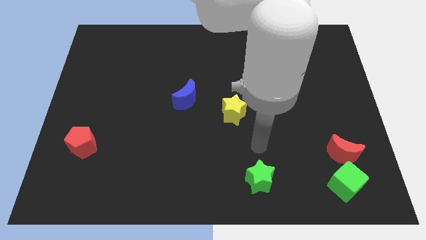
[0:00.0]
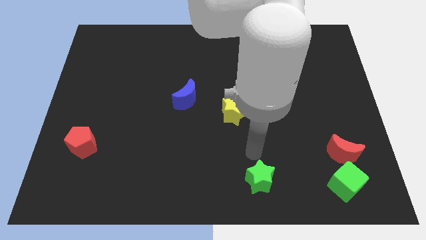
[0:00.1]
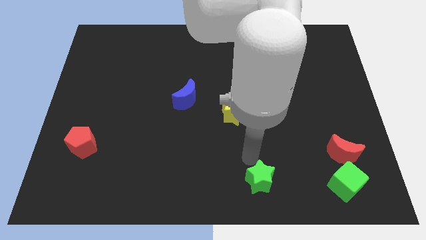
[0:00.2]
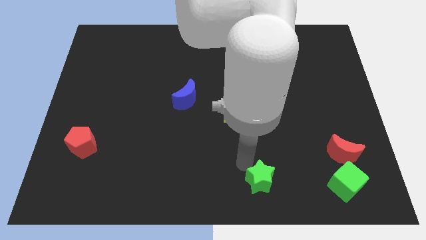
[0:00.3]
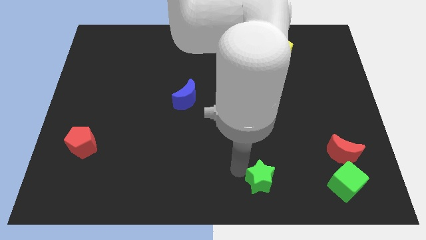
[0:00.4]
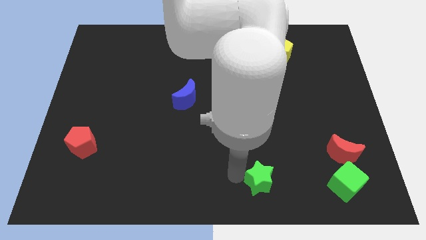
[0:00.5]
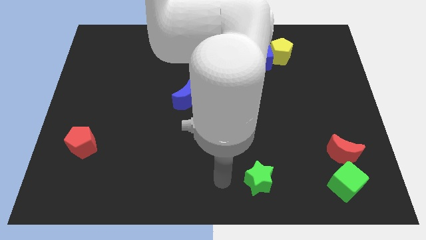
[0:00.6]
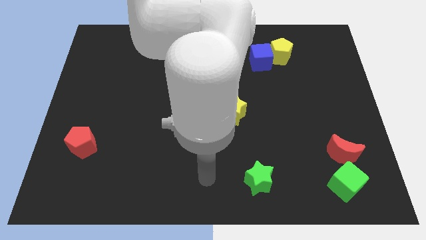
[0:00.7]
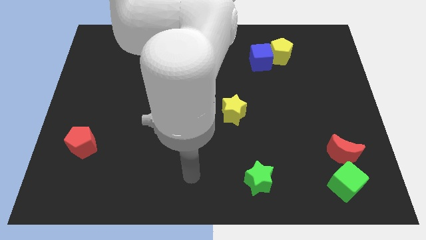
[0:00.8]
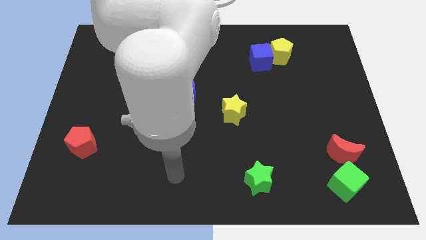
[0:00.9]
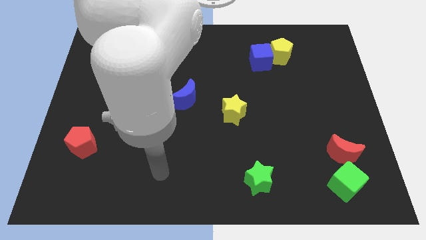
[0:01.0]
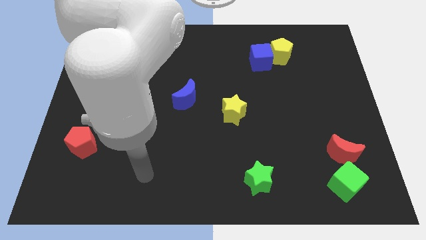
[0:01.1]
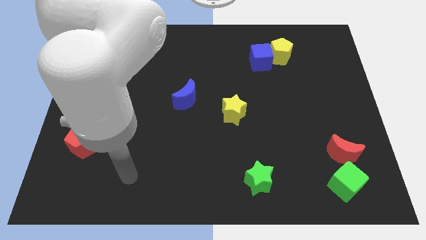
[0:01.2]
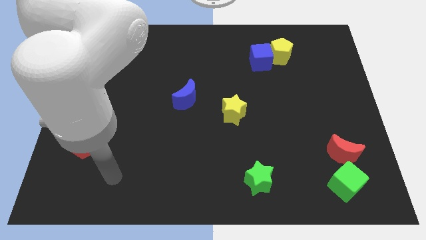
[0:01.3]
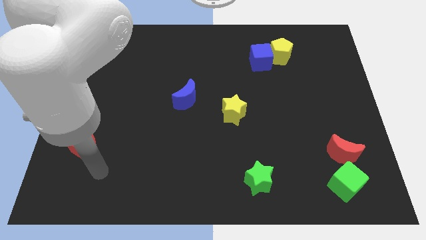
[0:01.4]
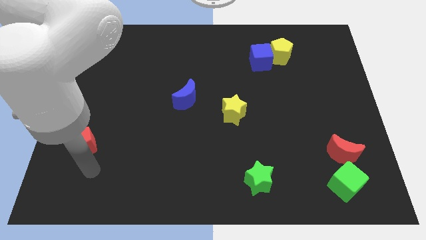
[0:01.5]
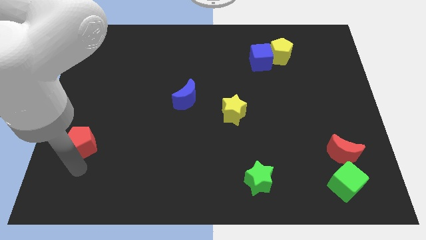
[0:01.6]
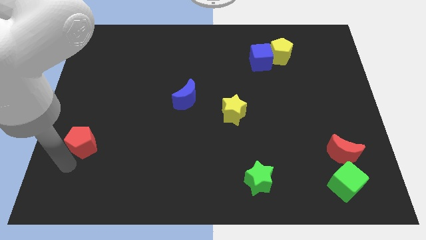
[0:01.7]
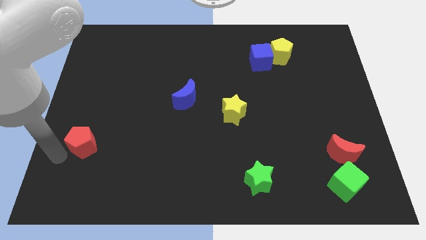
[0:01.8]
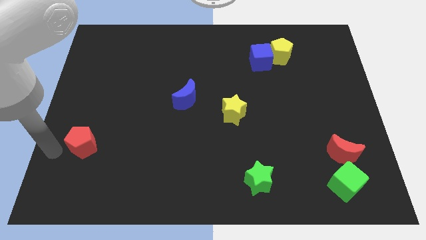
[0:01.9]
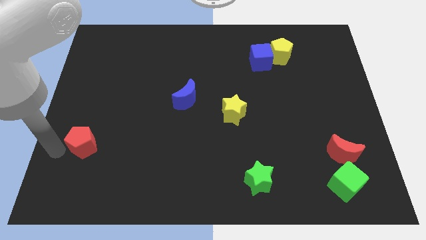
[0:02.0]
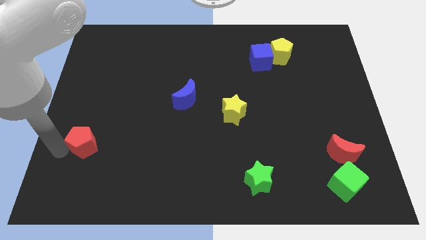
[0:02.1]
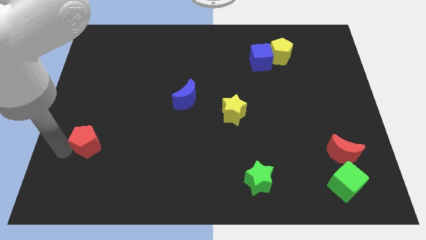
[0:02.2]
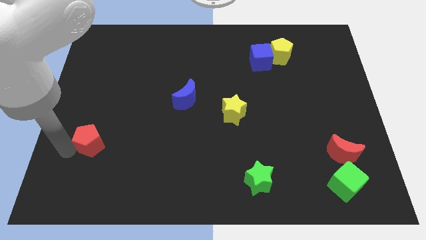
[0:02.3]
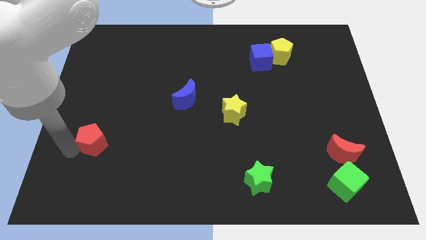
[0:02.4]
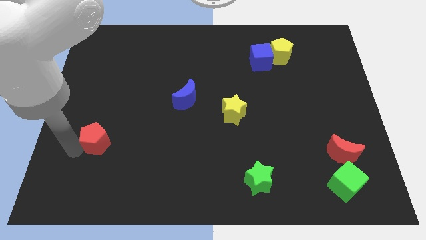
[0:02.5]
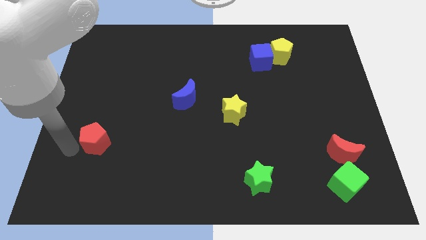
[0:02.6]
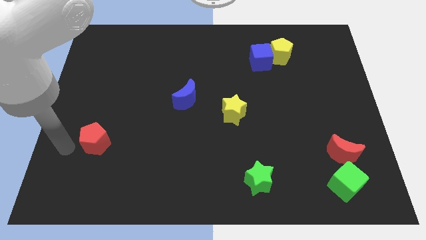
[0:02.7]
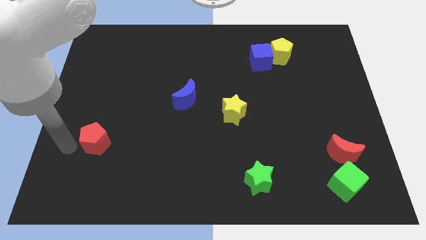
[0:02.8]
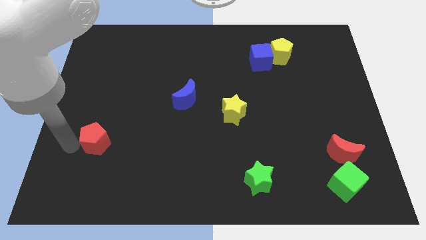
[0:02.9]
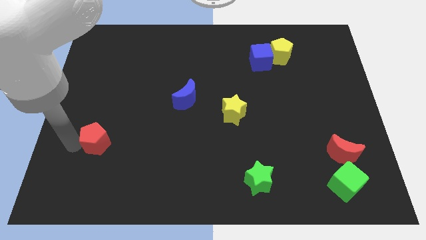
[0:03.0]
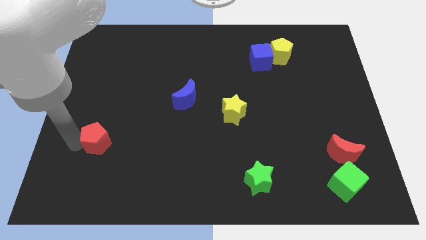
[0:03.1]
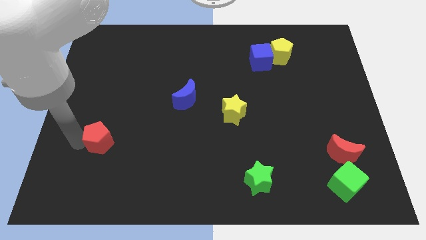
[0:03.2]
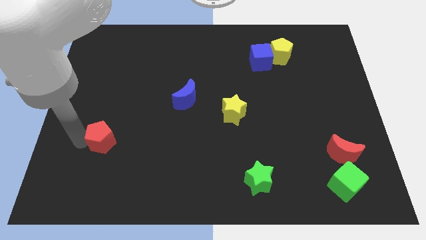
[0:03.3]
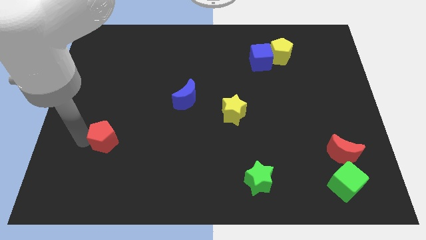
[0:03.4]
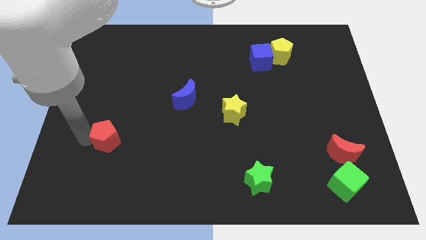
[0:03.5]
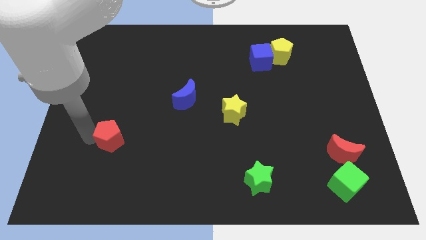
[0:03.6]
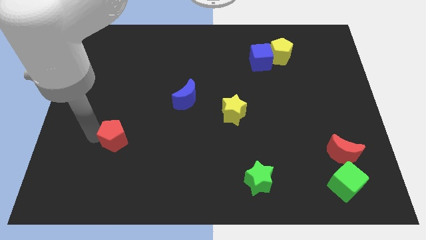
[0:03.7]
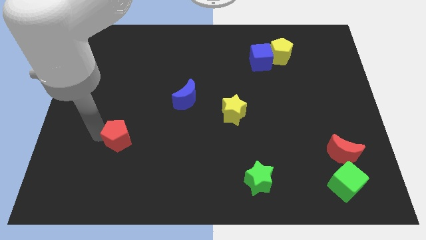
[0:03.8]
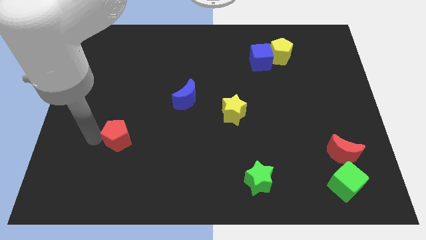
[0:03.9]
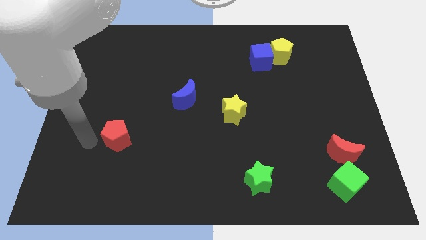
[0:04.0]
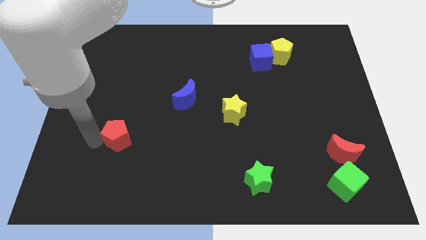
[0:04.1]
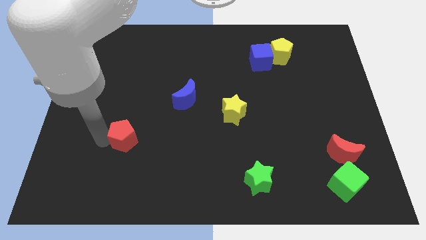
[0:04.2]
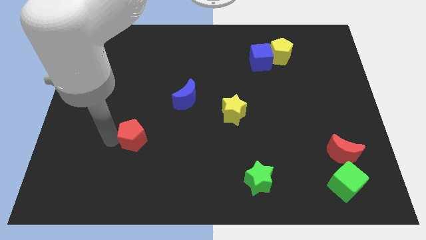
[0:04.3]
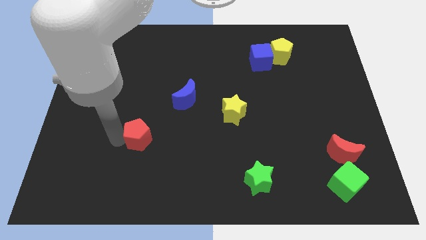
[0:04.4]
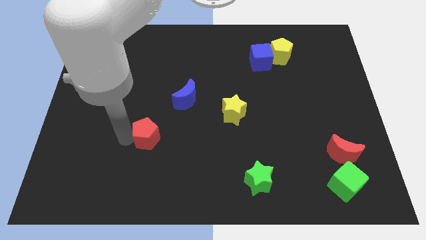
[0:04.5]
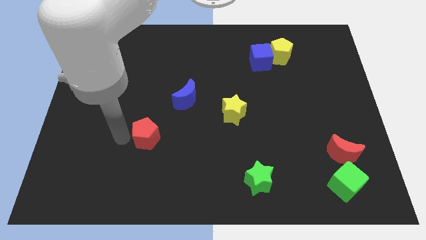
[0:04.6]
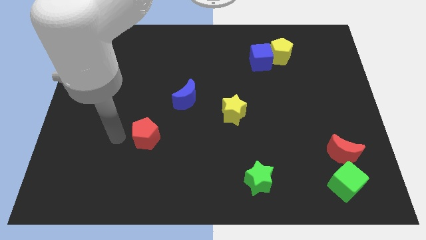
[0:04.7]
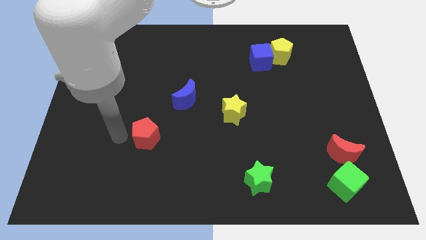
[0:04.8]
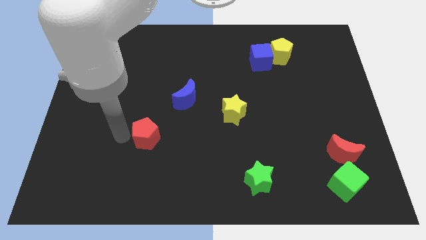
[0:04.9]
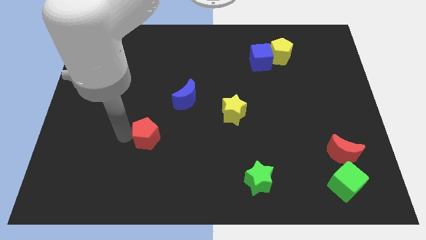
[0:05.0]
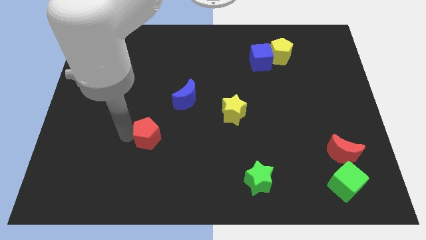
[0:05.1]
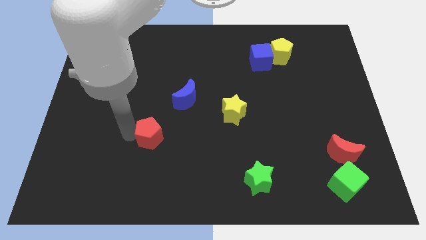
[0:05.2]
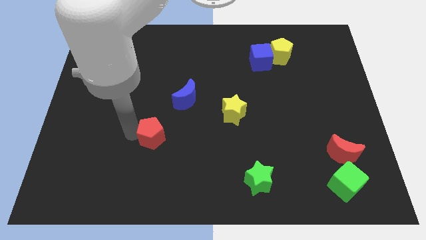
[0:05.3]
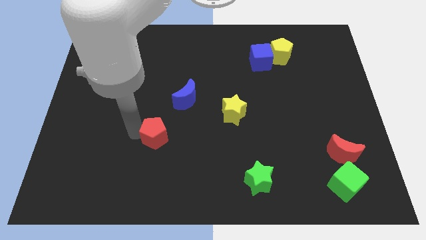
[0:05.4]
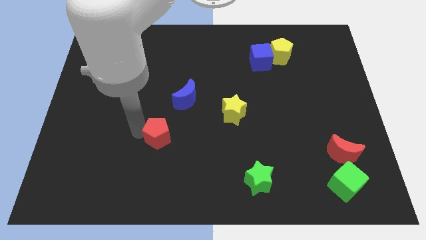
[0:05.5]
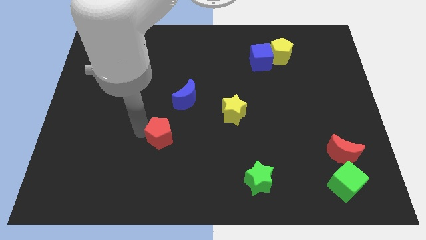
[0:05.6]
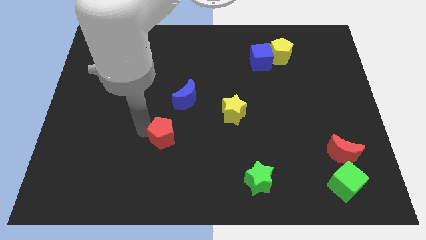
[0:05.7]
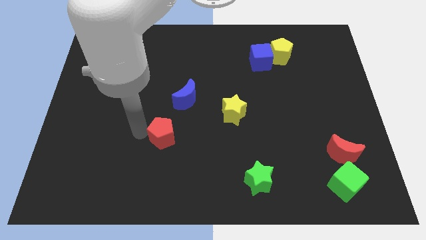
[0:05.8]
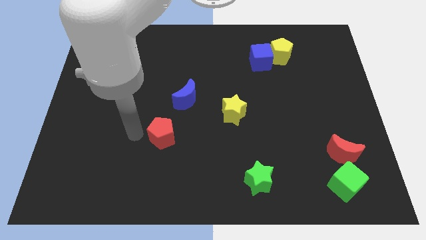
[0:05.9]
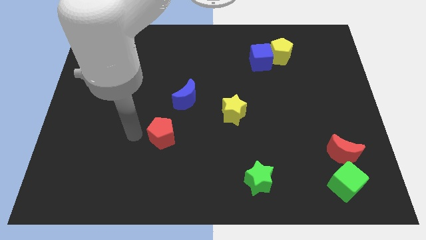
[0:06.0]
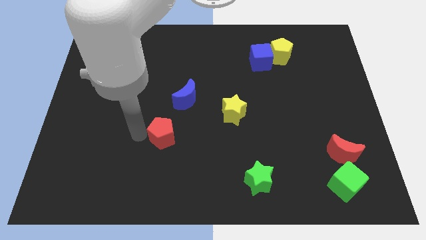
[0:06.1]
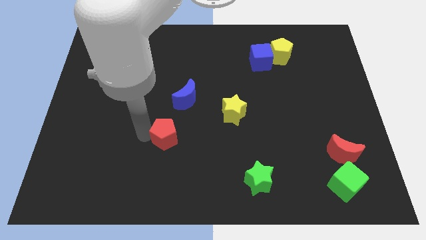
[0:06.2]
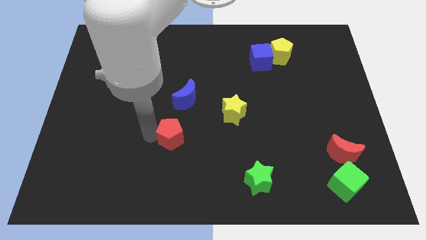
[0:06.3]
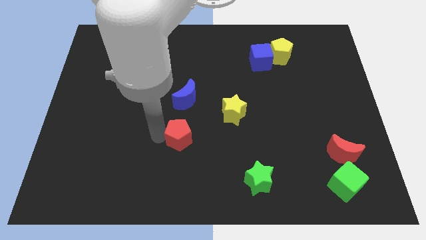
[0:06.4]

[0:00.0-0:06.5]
slide the red pentagon to the right

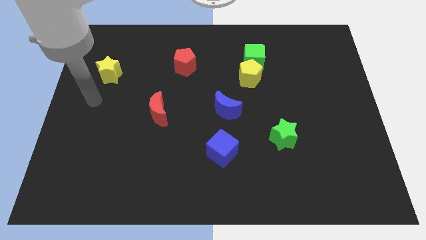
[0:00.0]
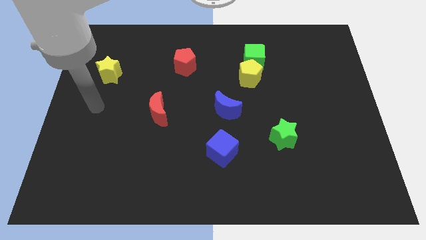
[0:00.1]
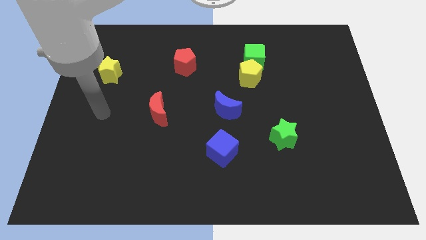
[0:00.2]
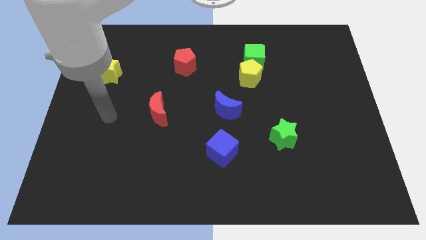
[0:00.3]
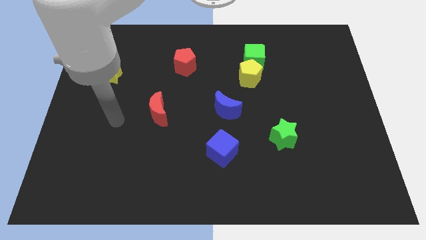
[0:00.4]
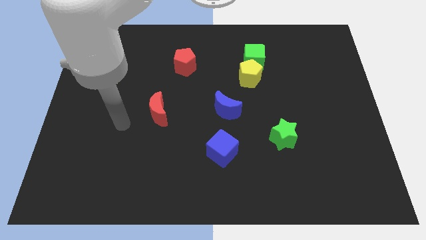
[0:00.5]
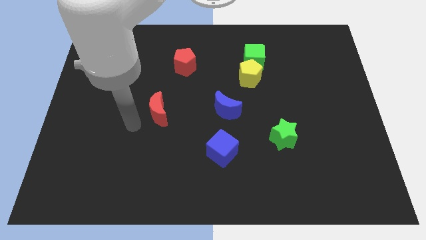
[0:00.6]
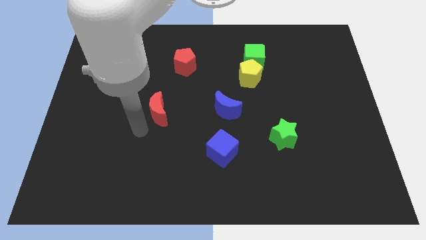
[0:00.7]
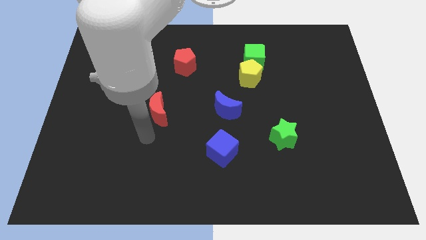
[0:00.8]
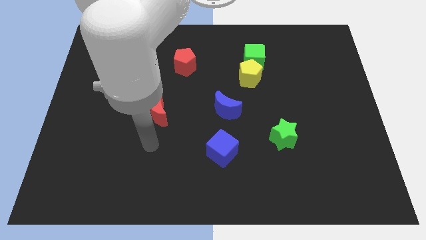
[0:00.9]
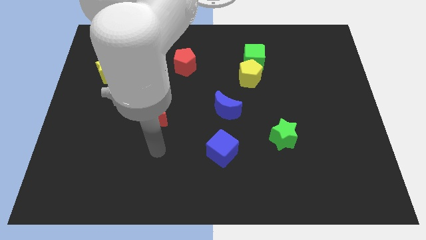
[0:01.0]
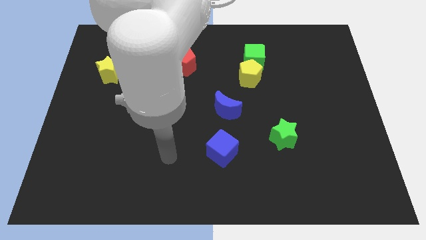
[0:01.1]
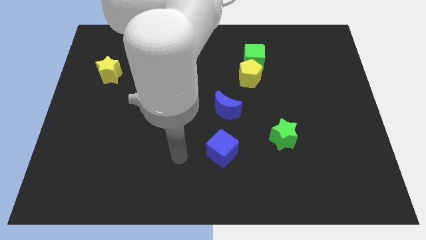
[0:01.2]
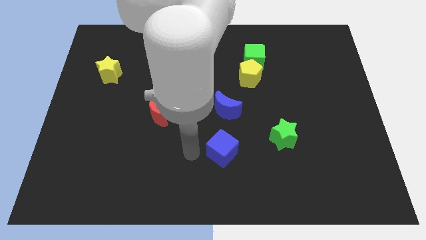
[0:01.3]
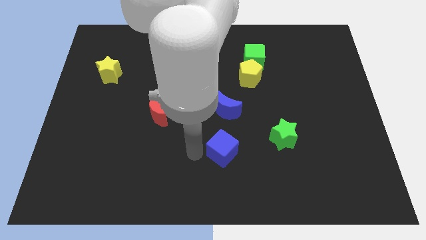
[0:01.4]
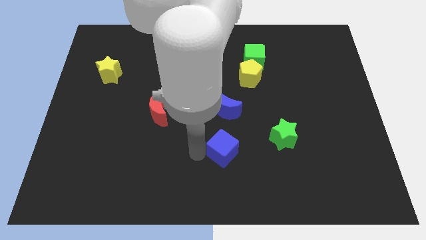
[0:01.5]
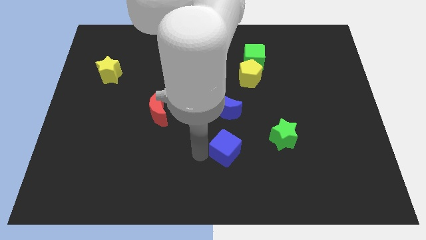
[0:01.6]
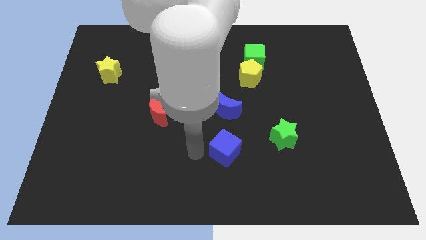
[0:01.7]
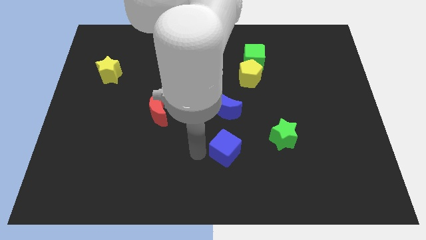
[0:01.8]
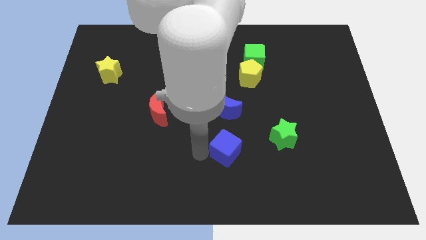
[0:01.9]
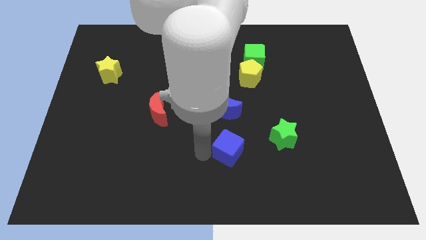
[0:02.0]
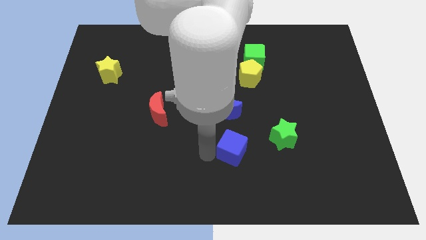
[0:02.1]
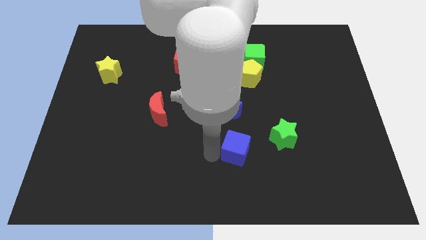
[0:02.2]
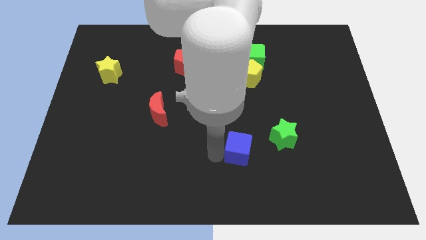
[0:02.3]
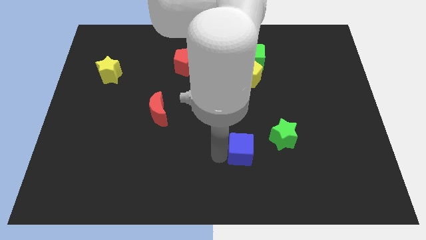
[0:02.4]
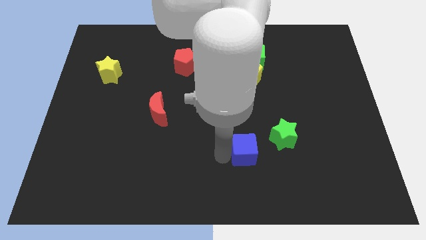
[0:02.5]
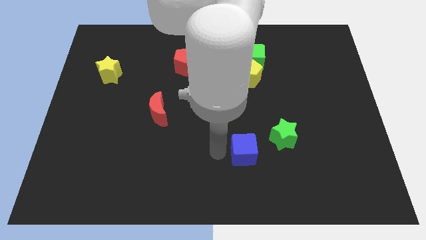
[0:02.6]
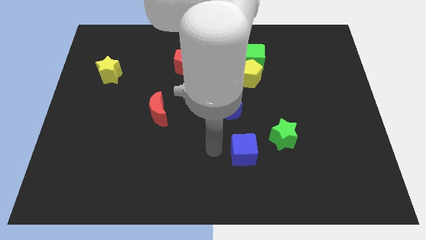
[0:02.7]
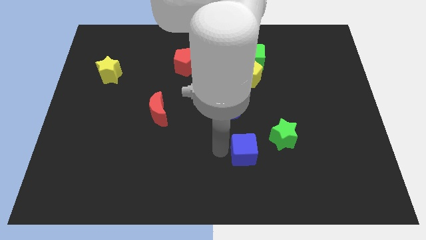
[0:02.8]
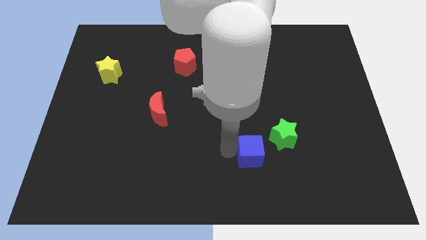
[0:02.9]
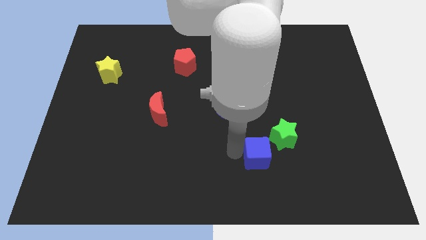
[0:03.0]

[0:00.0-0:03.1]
slightly move the blue cube right
